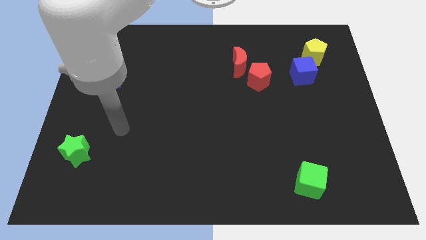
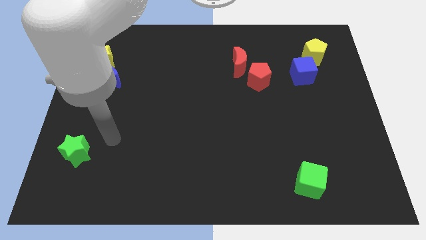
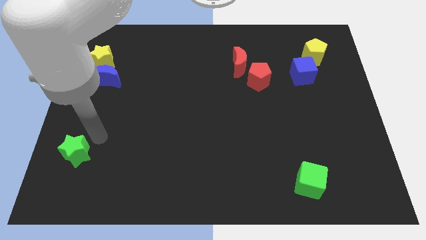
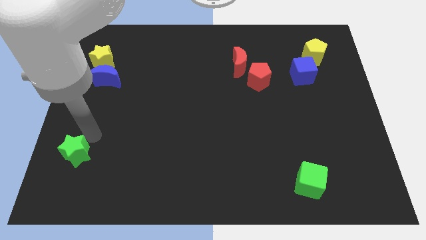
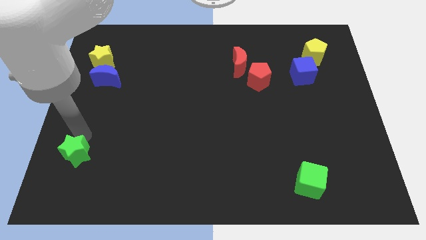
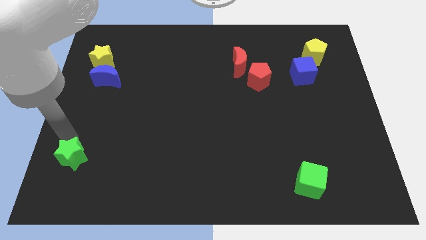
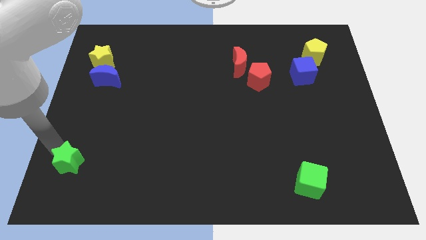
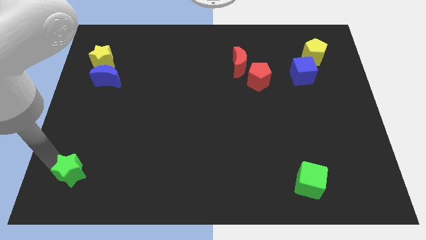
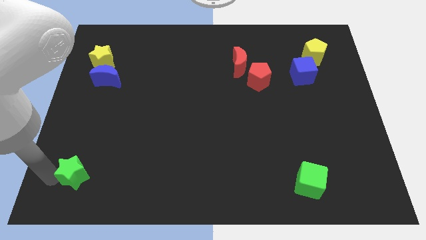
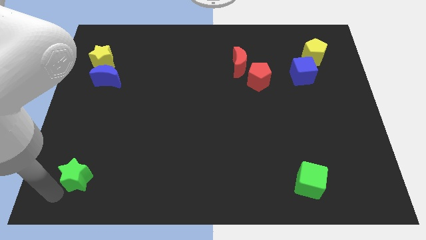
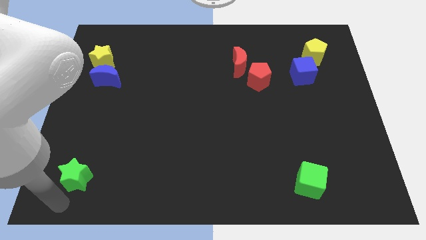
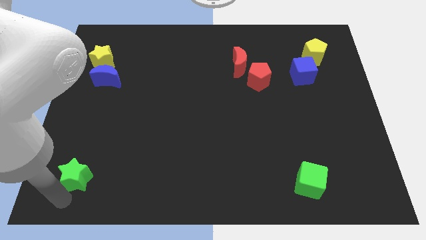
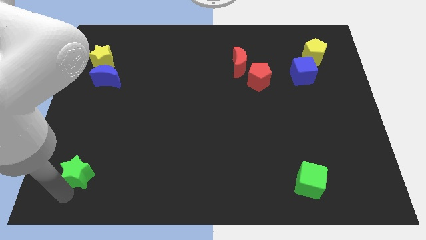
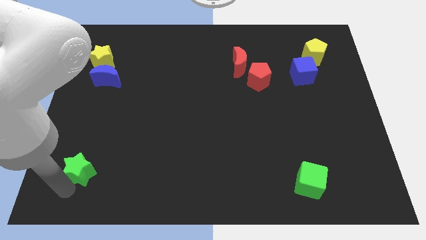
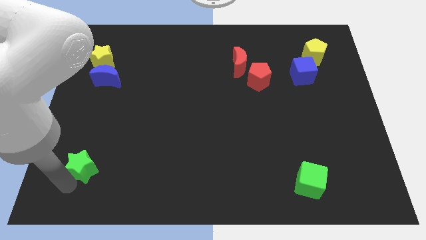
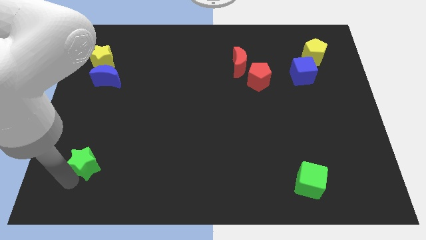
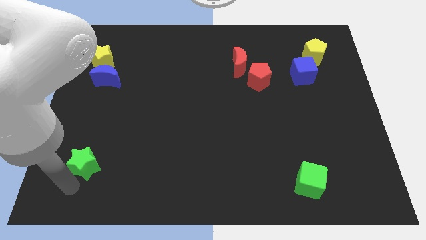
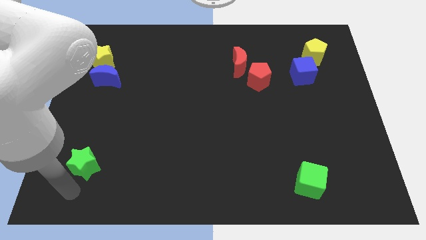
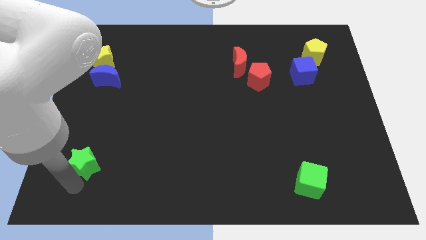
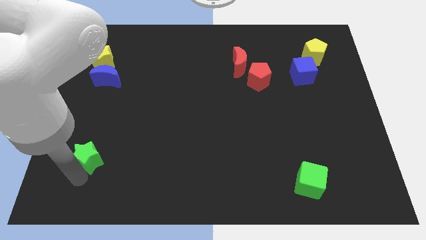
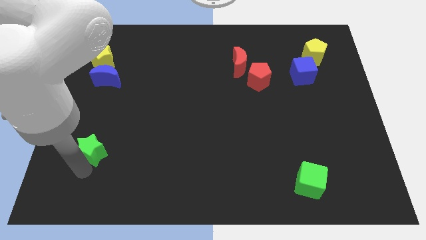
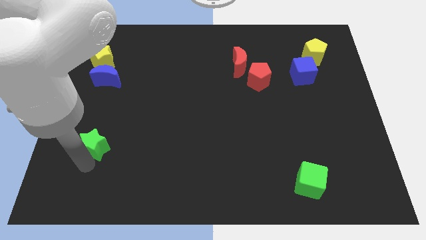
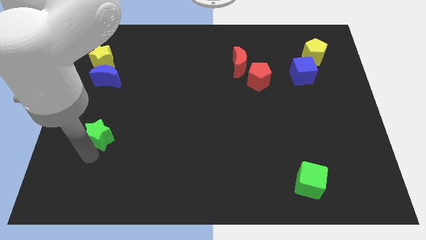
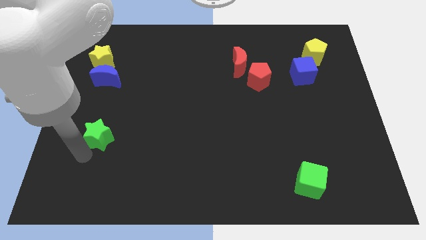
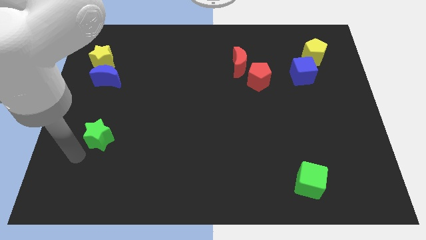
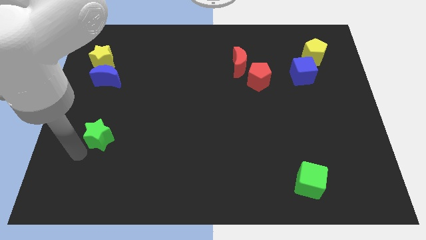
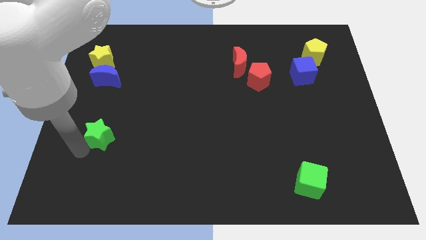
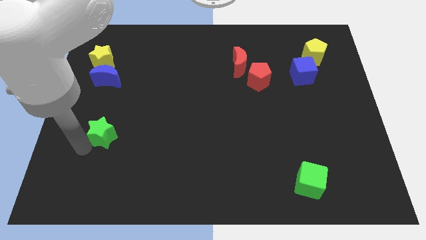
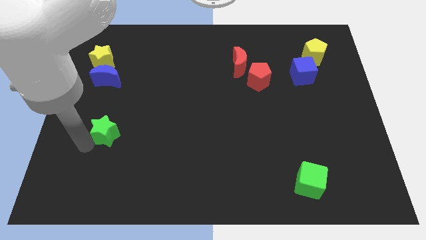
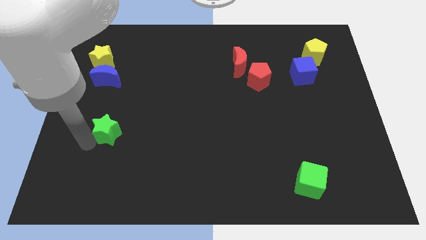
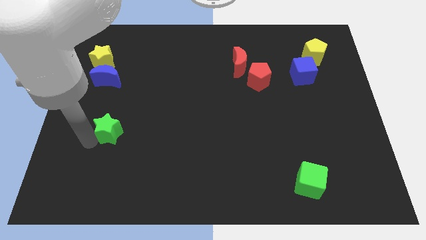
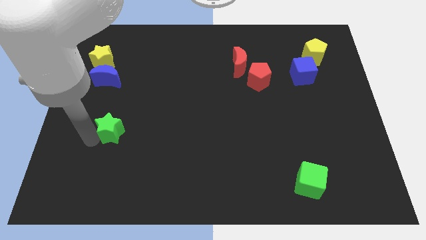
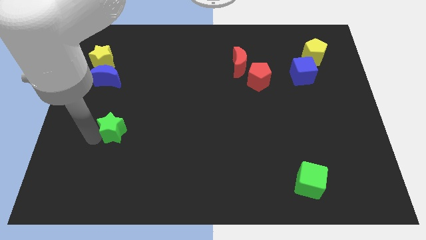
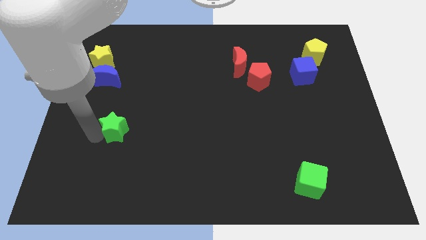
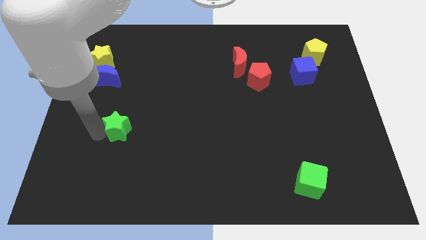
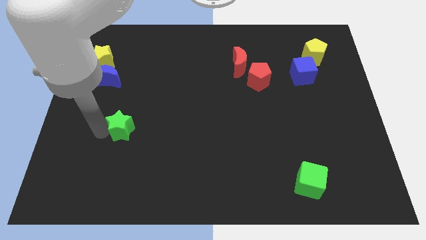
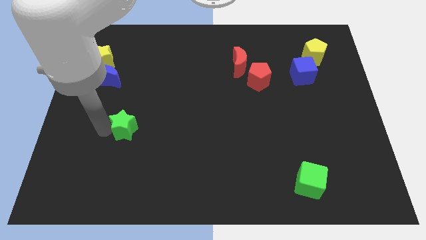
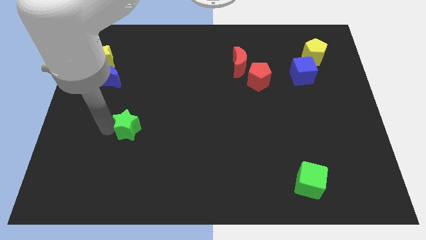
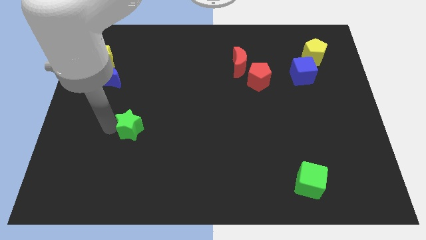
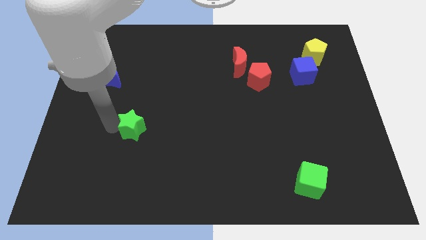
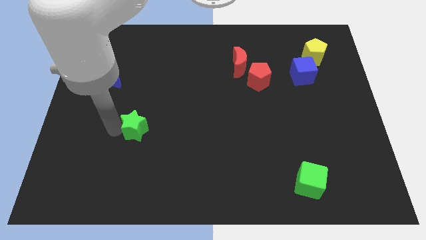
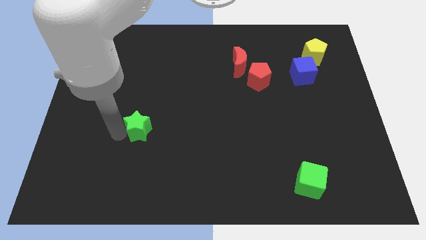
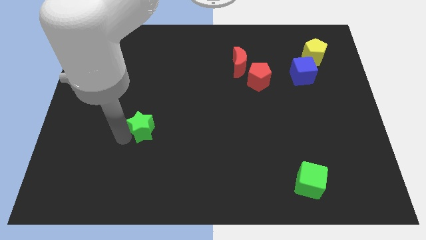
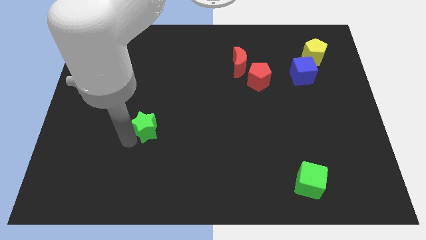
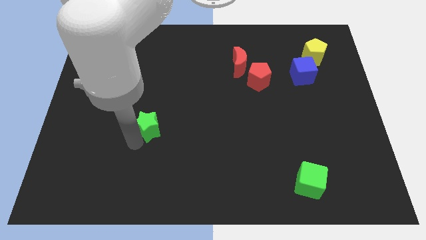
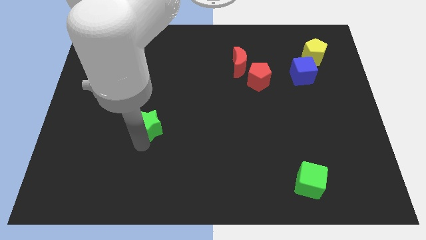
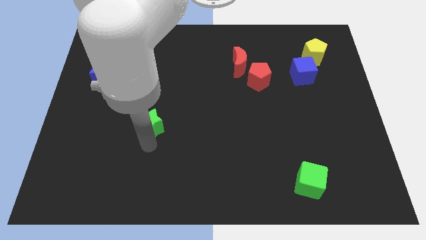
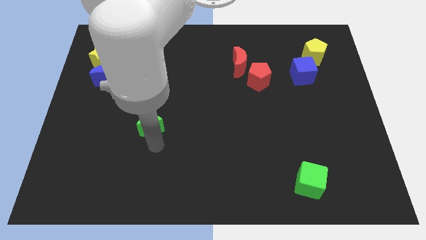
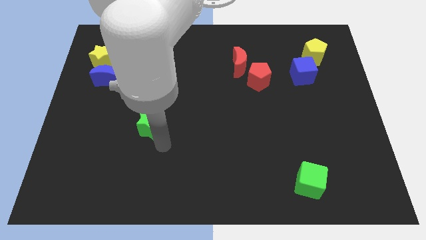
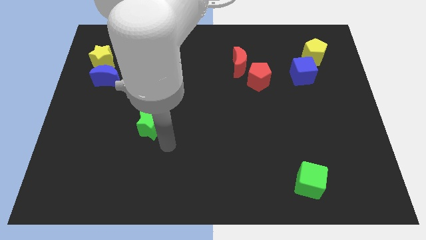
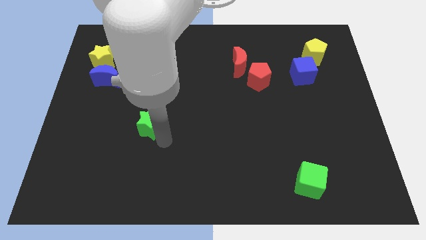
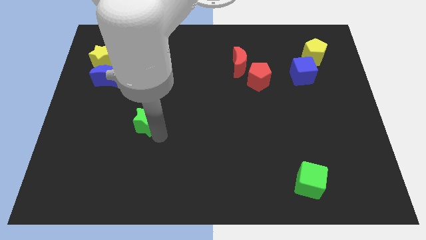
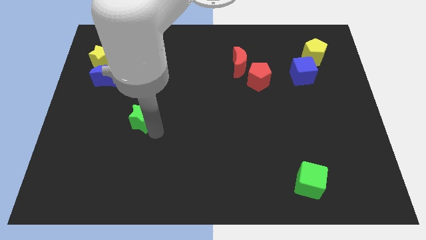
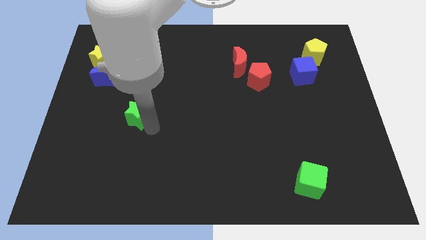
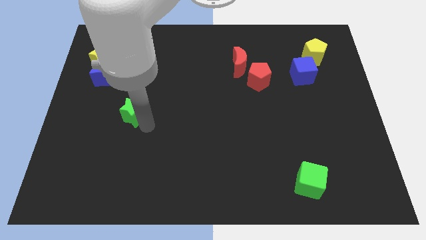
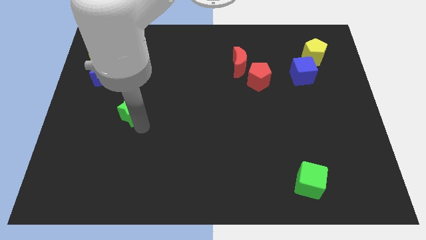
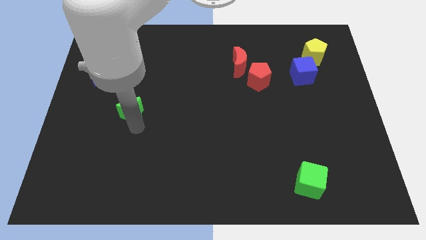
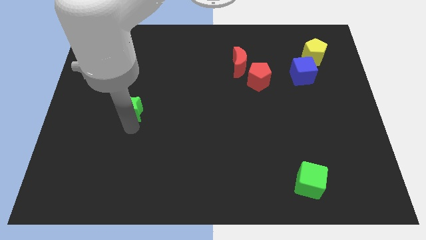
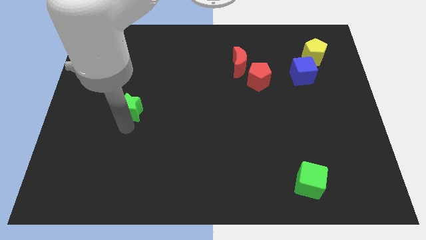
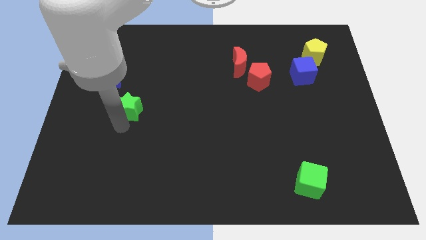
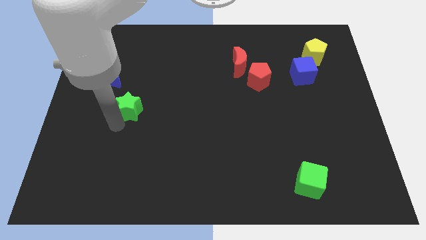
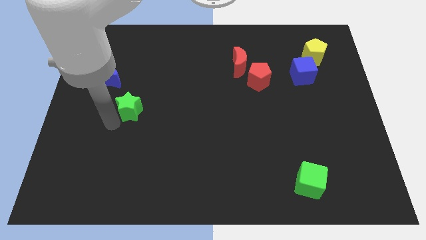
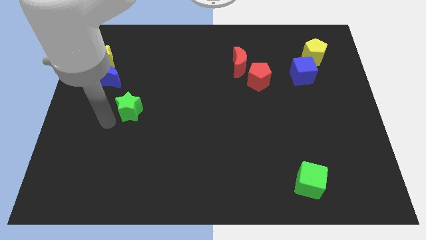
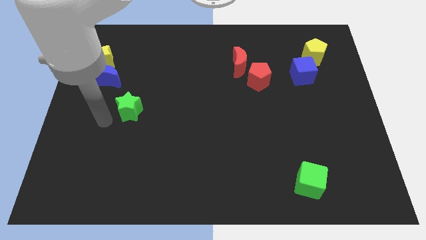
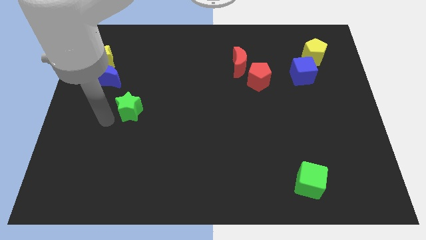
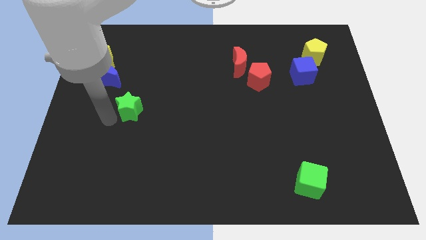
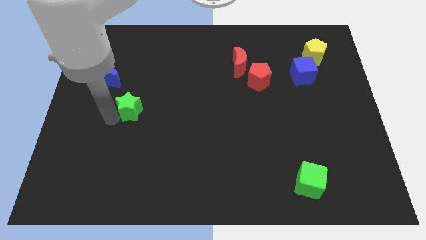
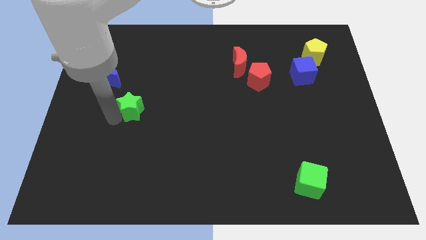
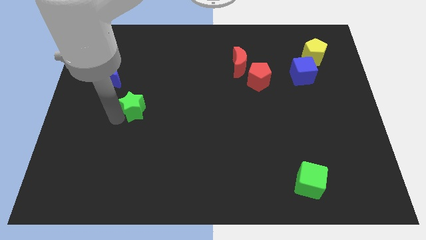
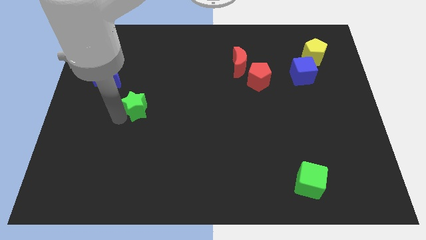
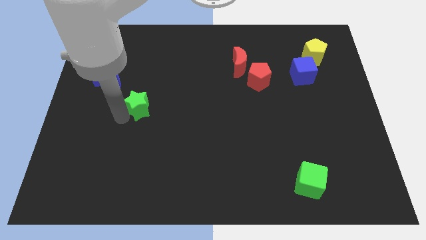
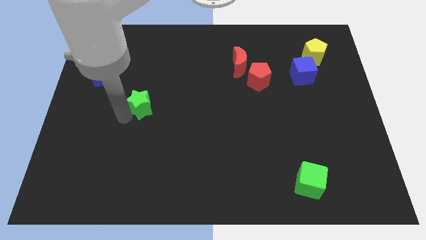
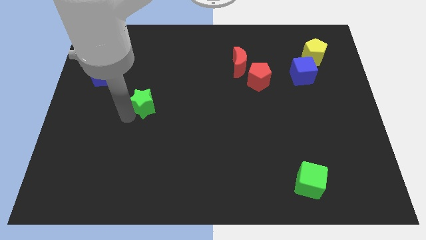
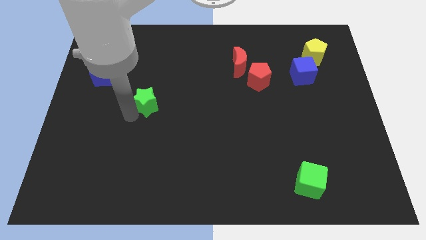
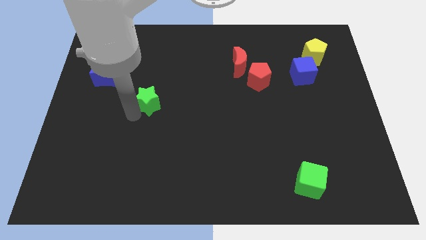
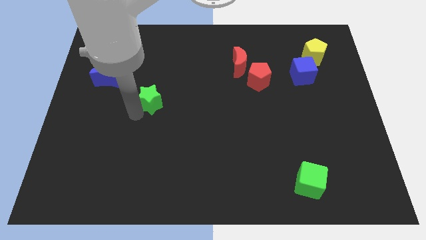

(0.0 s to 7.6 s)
push the green star up and then right

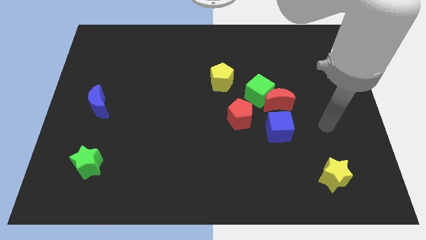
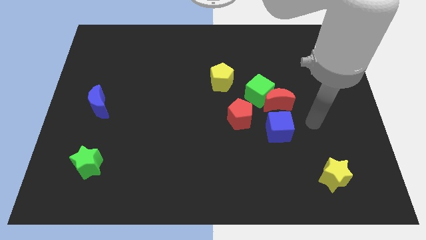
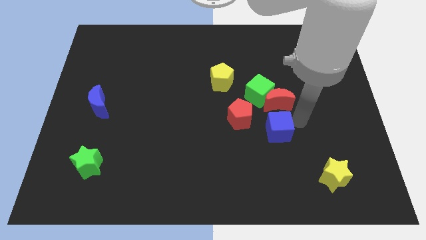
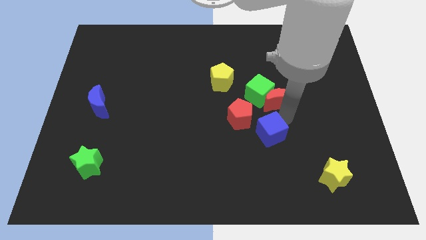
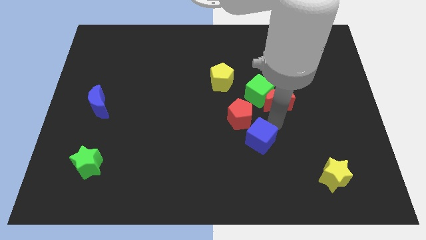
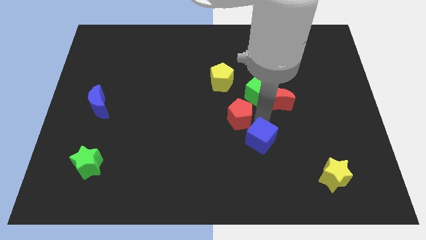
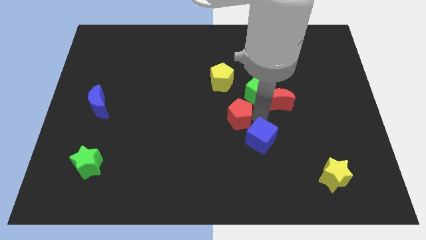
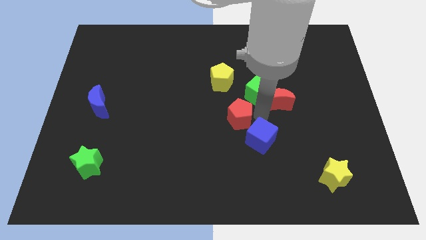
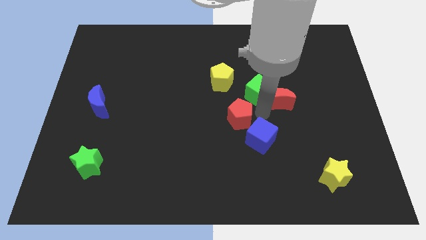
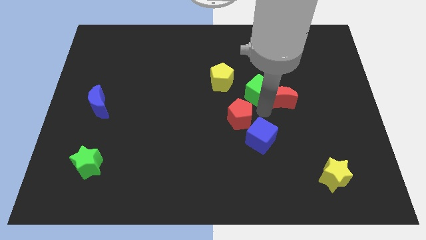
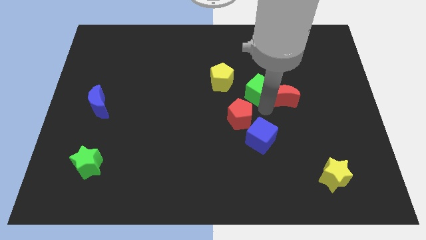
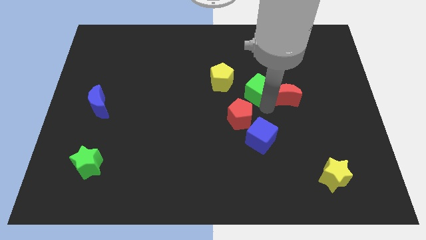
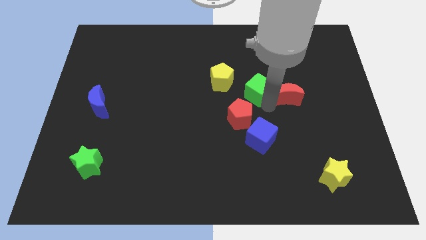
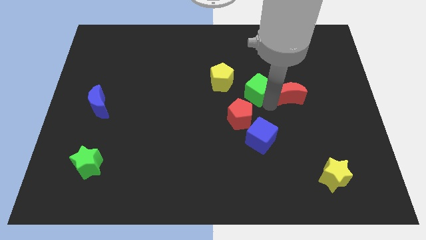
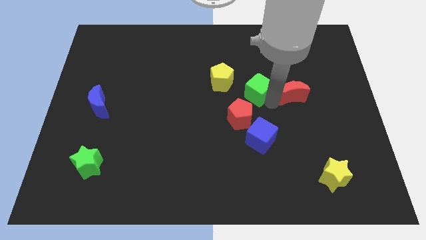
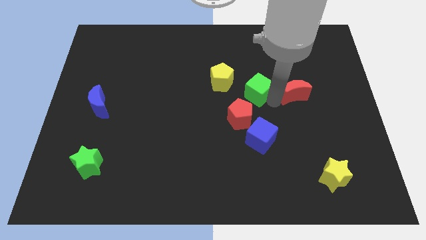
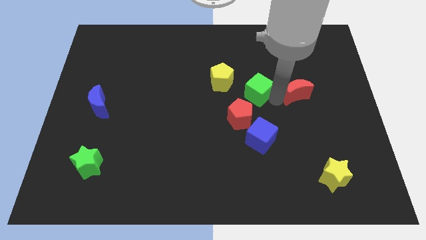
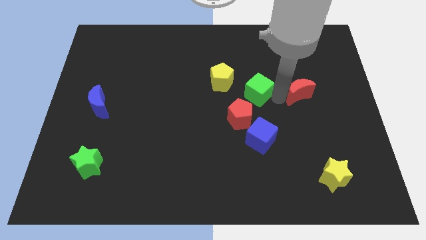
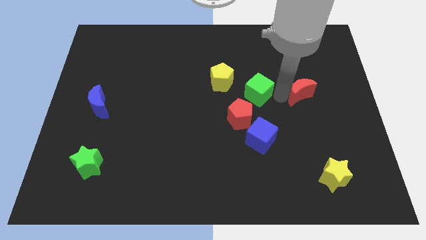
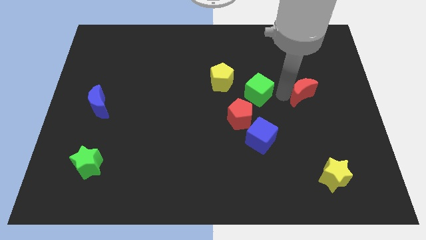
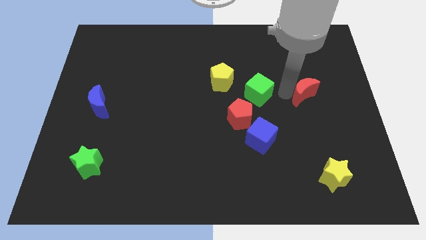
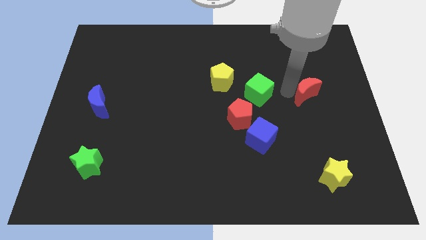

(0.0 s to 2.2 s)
slide the red moon up and right diagonally a bit
